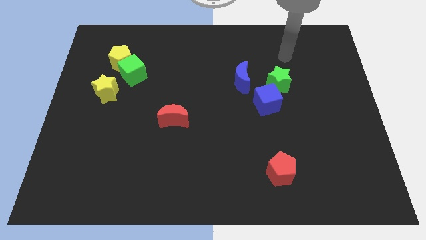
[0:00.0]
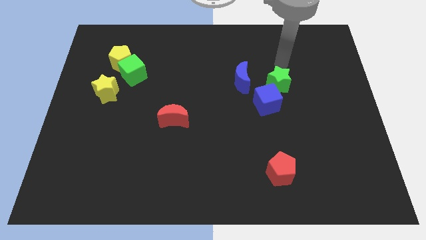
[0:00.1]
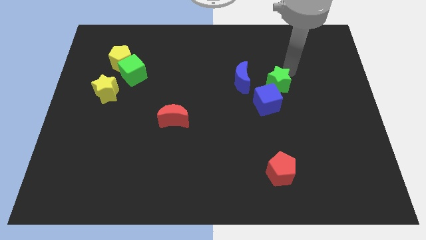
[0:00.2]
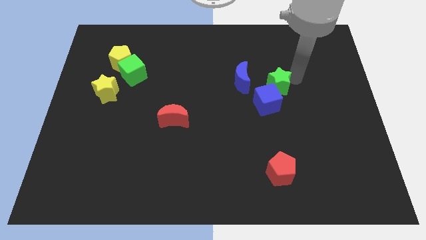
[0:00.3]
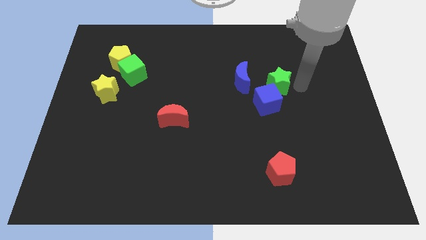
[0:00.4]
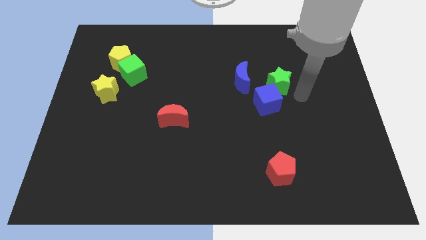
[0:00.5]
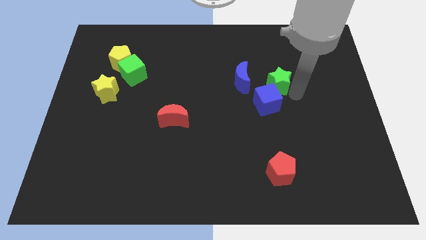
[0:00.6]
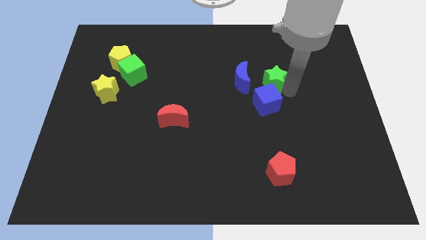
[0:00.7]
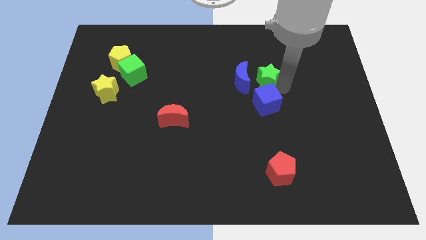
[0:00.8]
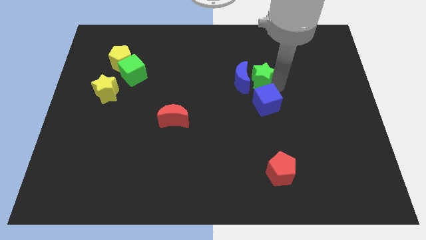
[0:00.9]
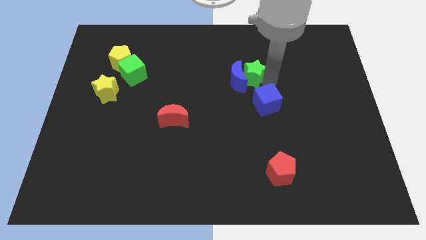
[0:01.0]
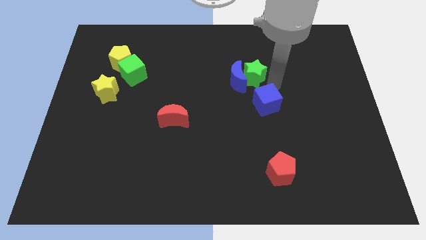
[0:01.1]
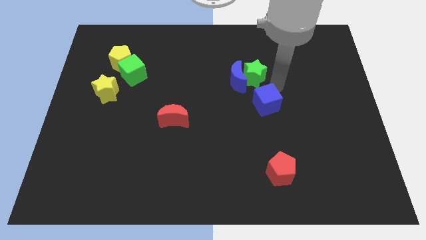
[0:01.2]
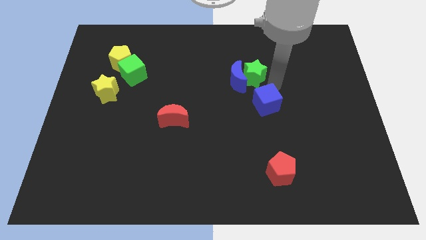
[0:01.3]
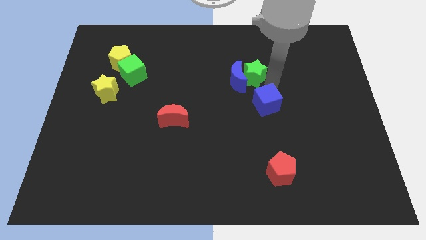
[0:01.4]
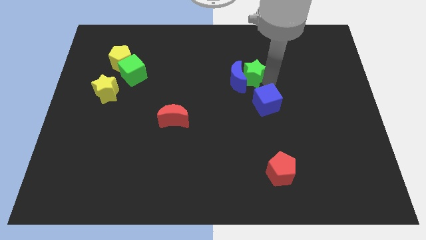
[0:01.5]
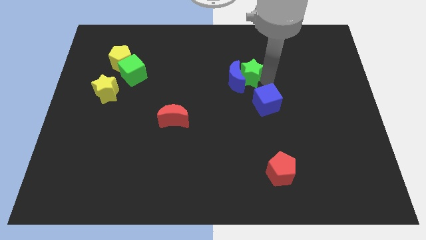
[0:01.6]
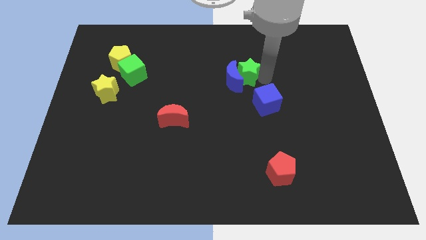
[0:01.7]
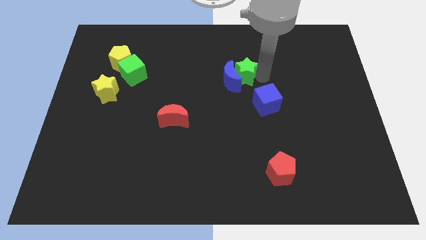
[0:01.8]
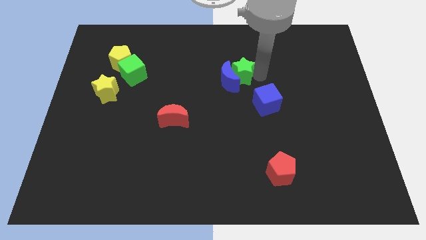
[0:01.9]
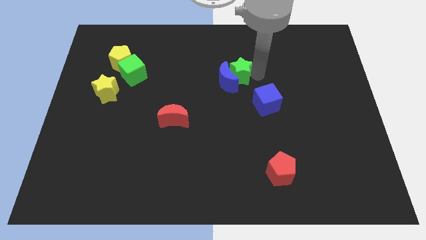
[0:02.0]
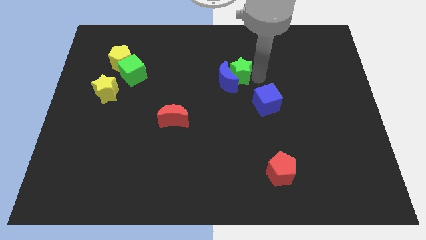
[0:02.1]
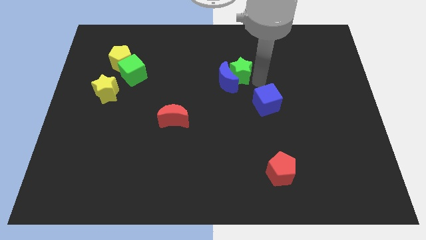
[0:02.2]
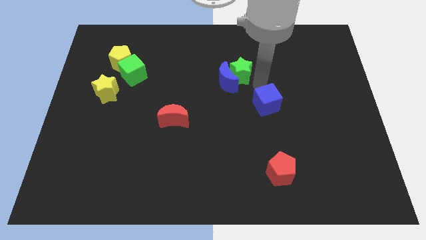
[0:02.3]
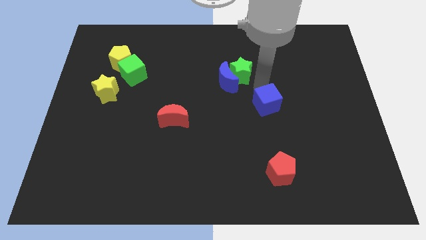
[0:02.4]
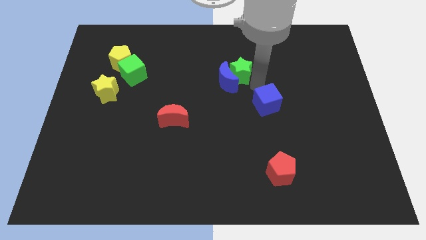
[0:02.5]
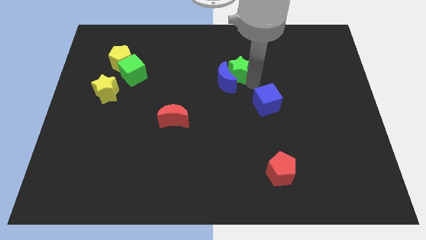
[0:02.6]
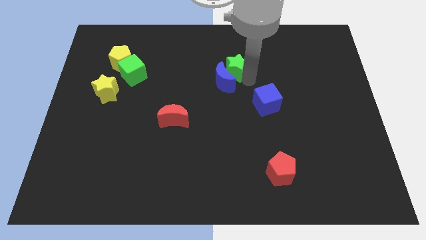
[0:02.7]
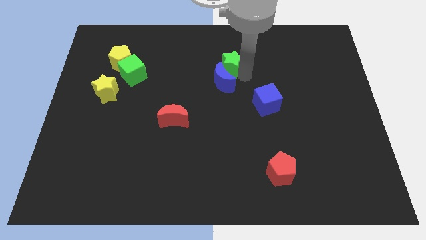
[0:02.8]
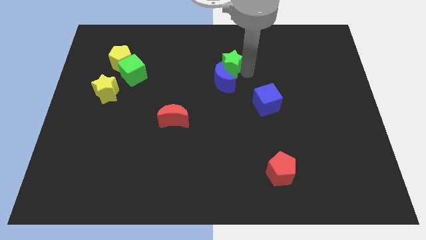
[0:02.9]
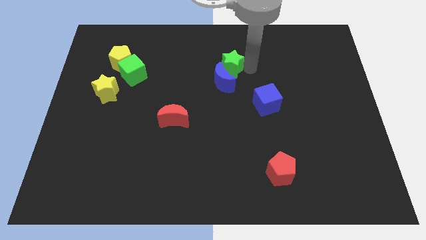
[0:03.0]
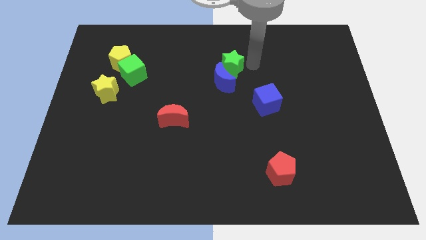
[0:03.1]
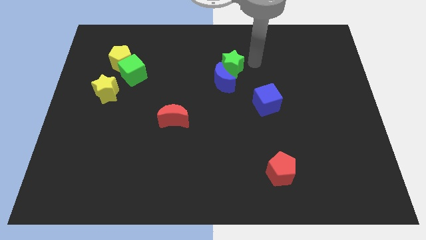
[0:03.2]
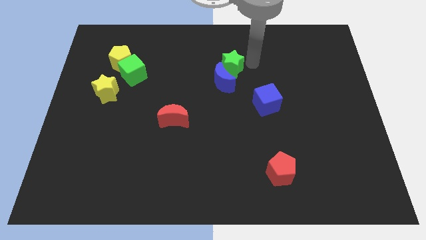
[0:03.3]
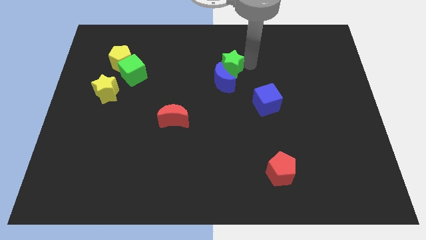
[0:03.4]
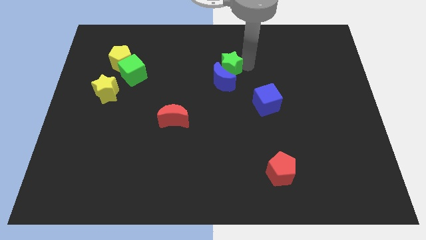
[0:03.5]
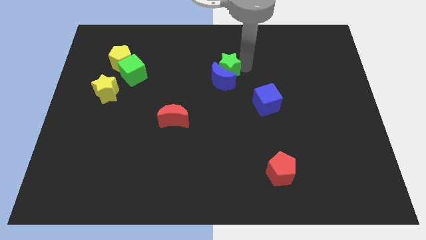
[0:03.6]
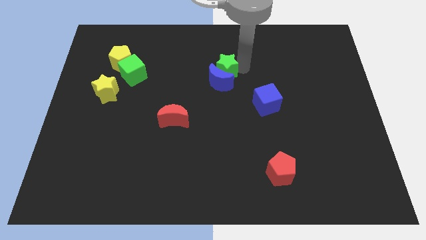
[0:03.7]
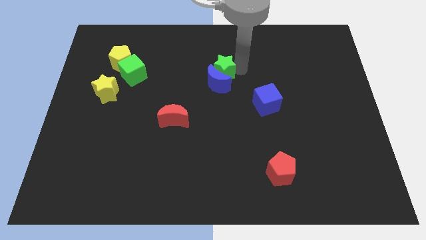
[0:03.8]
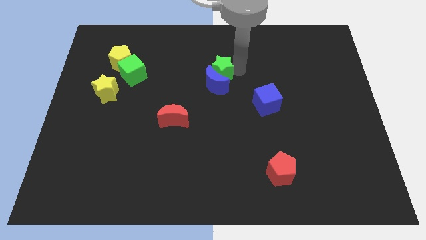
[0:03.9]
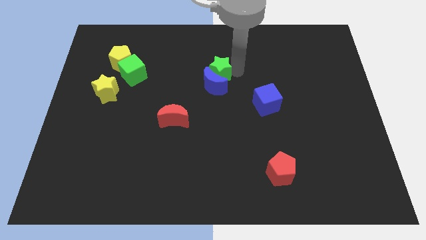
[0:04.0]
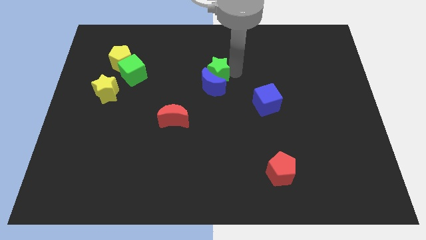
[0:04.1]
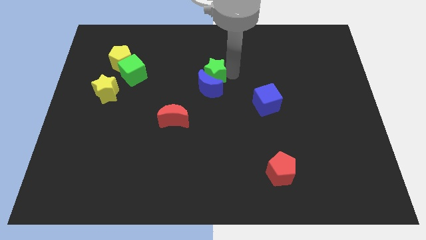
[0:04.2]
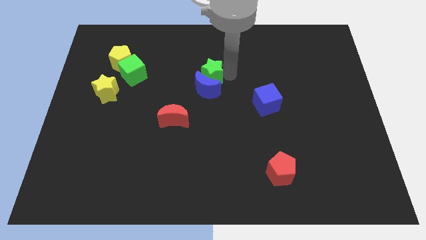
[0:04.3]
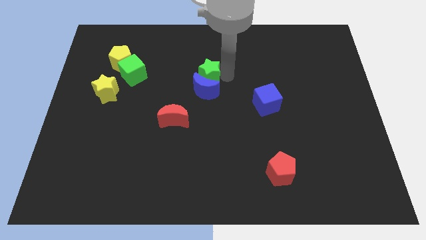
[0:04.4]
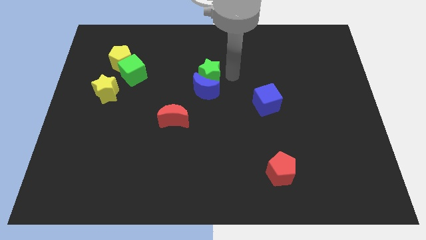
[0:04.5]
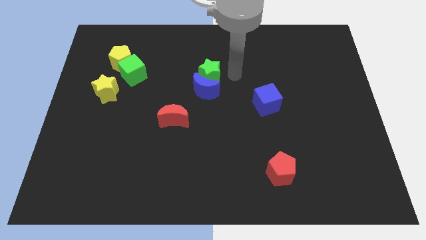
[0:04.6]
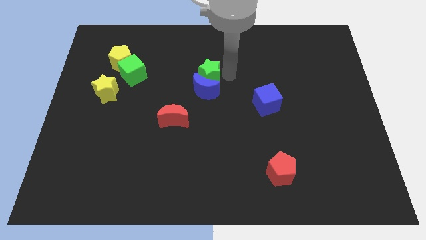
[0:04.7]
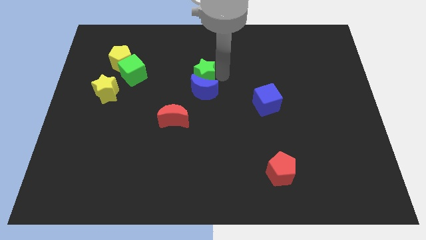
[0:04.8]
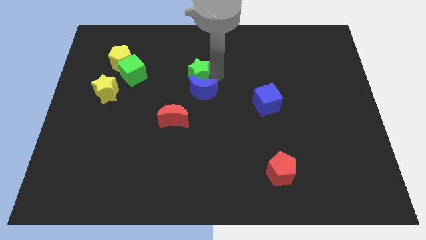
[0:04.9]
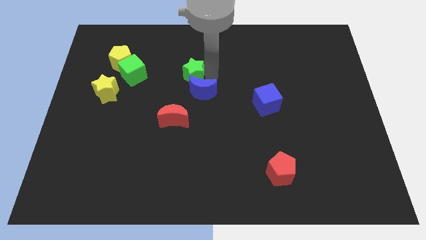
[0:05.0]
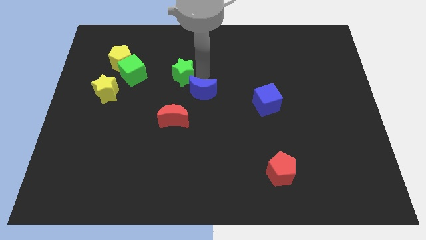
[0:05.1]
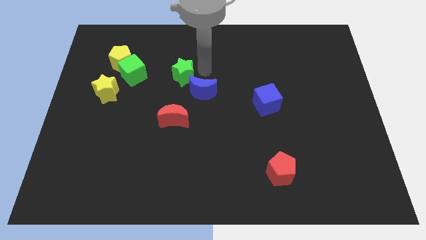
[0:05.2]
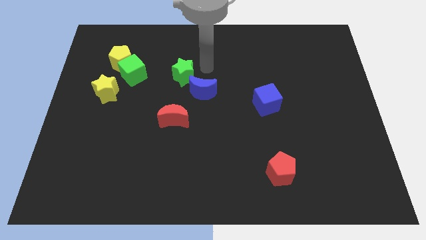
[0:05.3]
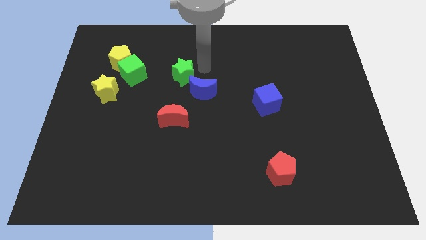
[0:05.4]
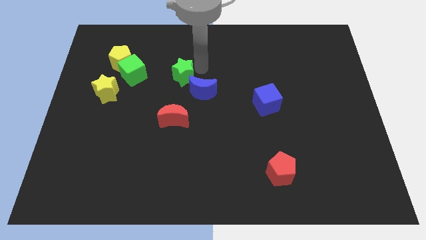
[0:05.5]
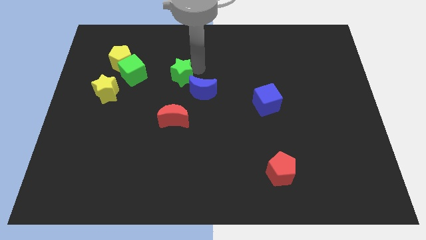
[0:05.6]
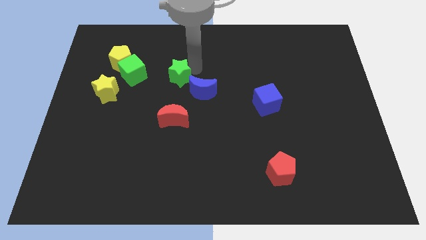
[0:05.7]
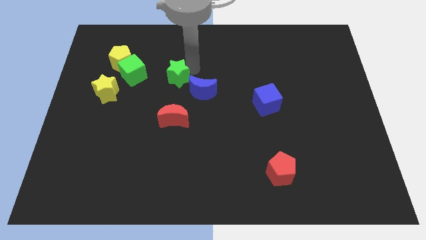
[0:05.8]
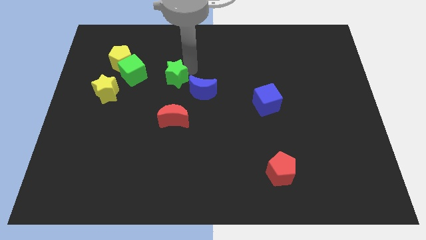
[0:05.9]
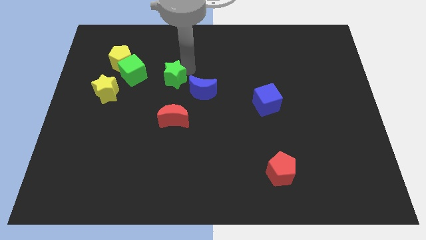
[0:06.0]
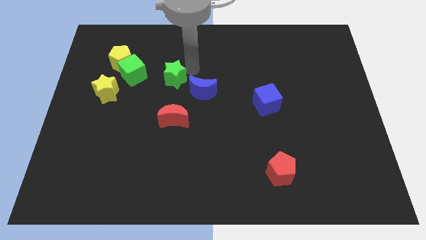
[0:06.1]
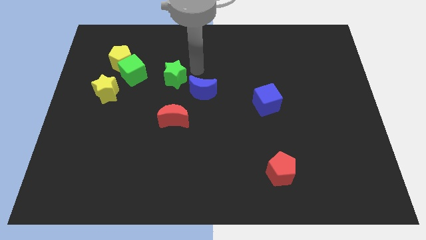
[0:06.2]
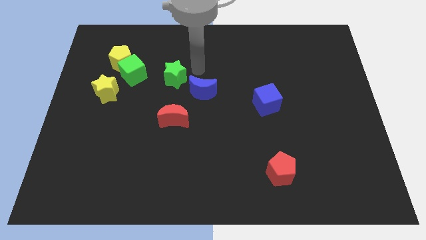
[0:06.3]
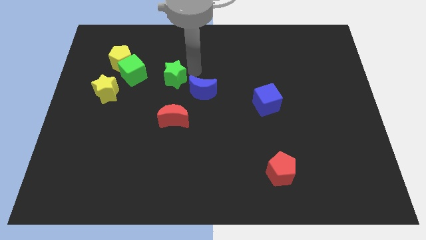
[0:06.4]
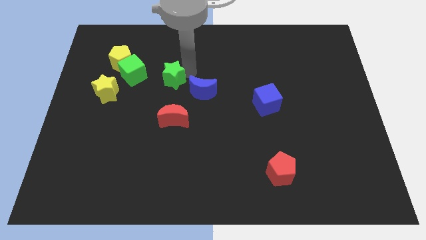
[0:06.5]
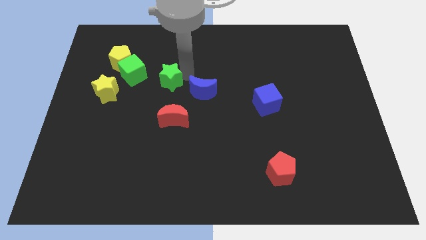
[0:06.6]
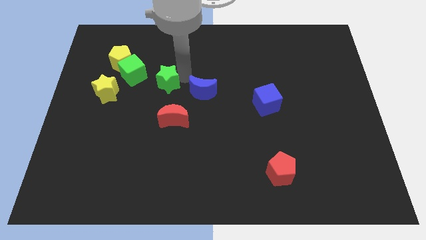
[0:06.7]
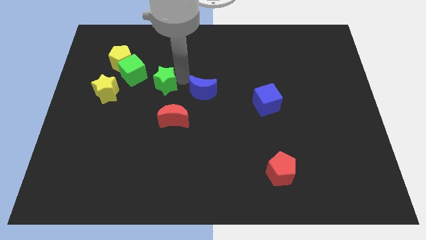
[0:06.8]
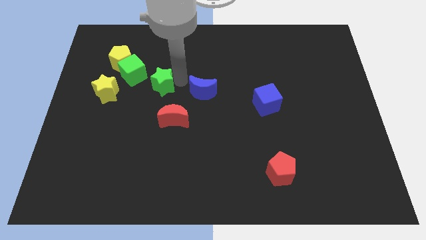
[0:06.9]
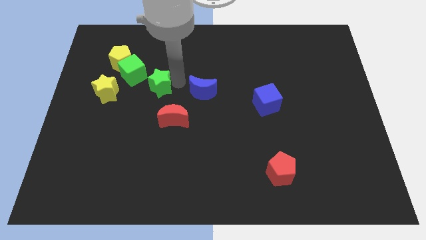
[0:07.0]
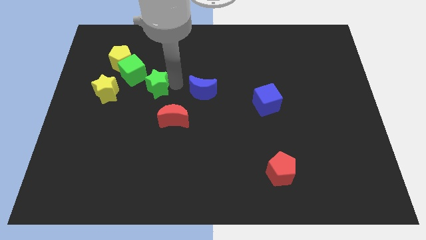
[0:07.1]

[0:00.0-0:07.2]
slide the green star to the bottom right of the yellow pentagon
